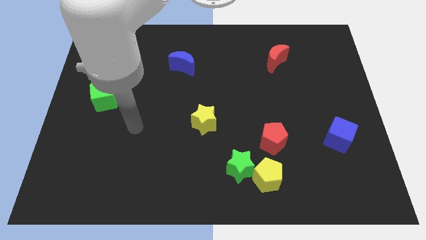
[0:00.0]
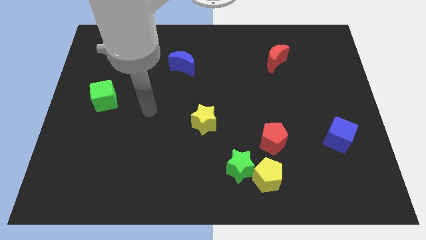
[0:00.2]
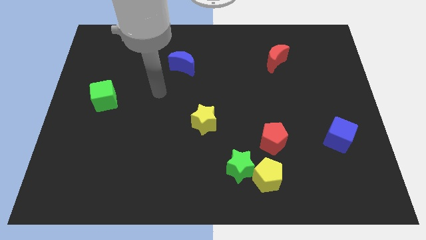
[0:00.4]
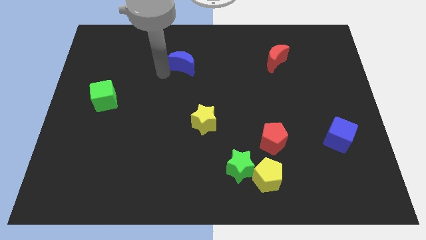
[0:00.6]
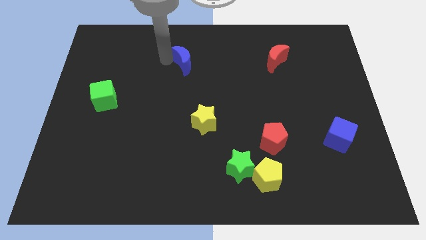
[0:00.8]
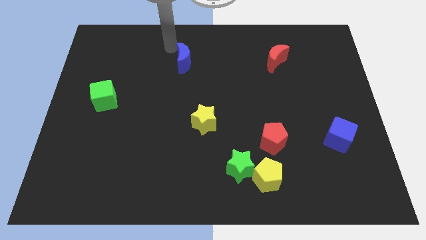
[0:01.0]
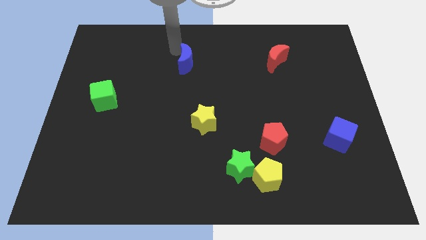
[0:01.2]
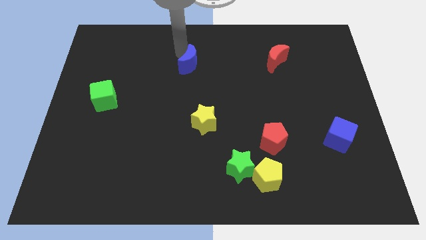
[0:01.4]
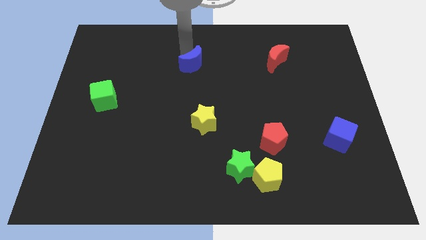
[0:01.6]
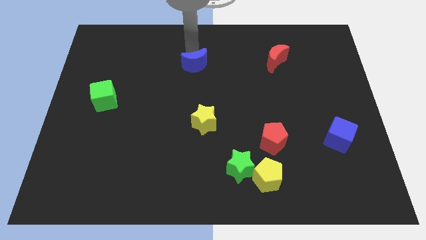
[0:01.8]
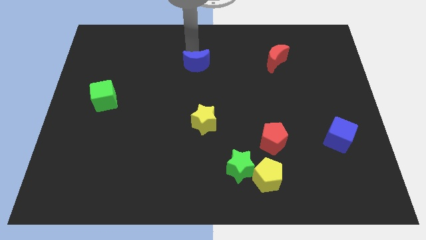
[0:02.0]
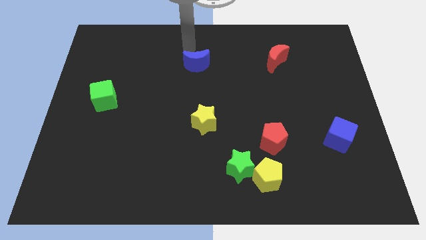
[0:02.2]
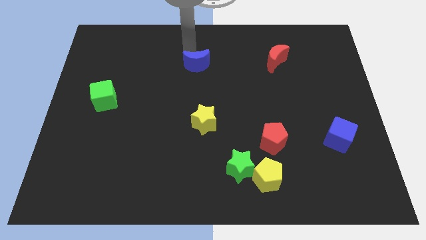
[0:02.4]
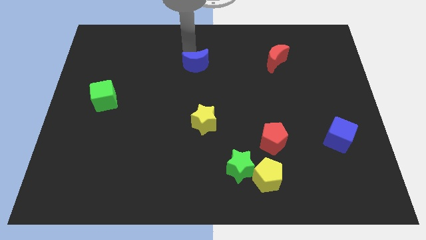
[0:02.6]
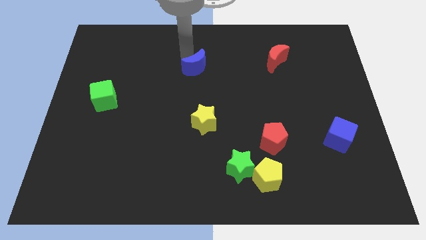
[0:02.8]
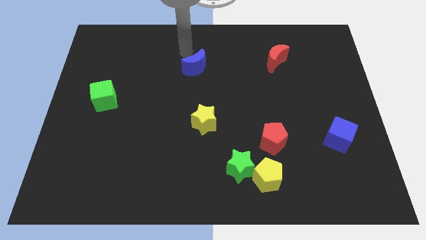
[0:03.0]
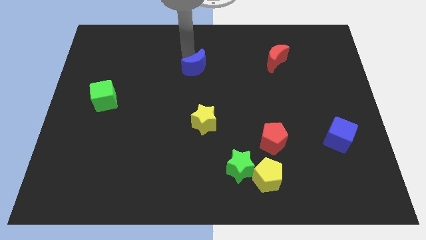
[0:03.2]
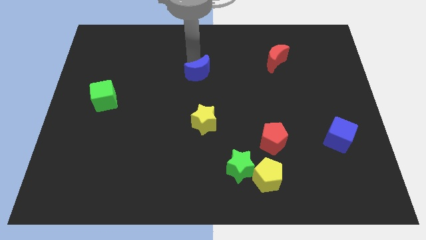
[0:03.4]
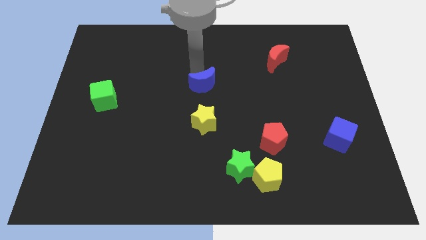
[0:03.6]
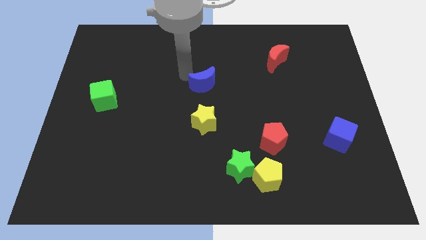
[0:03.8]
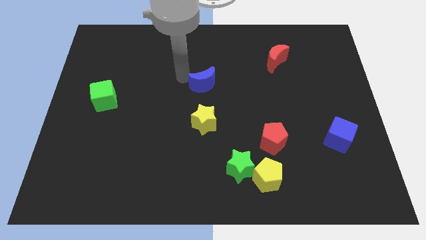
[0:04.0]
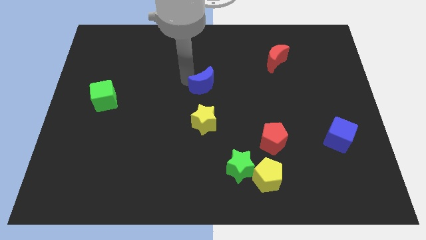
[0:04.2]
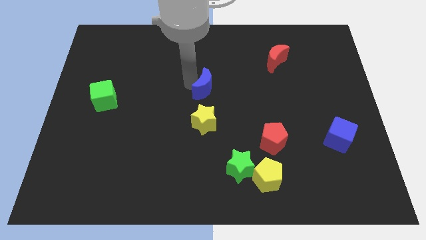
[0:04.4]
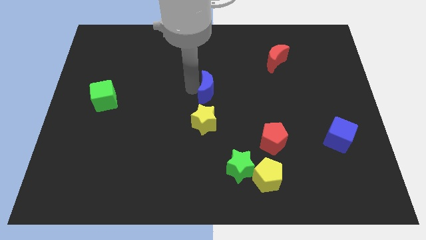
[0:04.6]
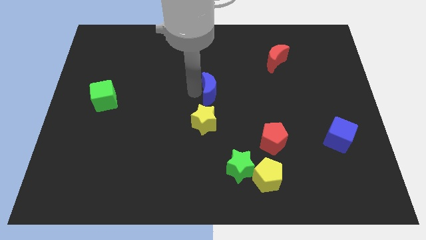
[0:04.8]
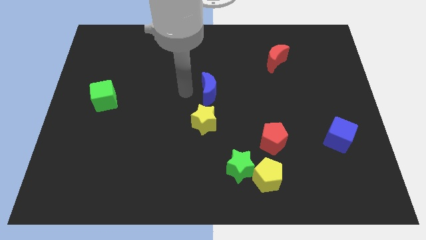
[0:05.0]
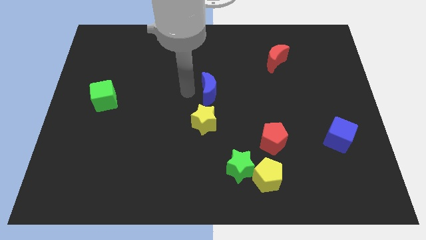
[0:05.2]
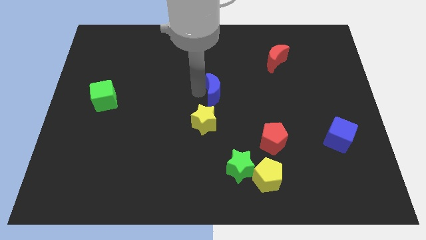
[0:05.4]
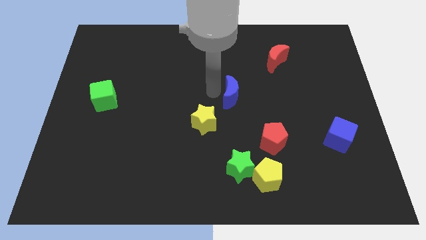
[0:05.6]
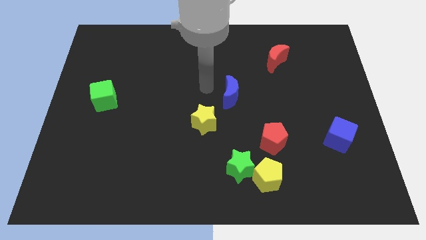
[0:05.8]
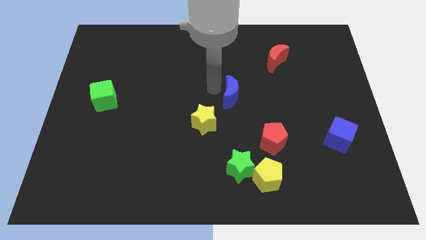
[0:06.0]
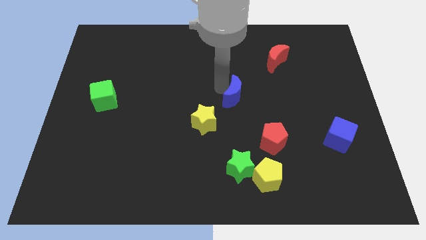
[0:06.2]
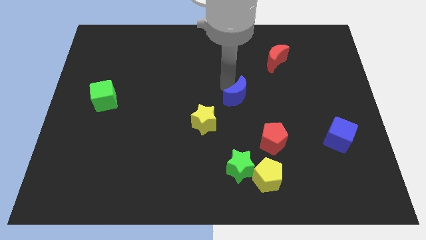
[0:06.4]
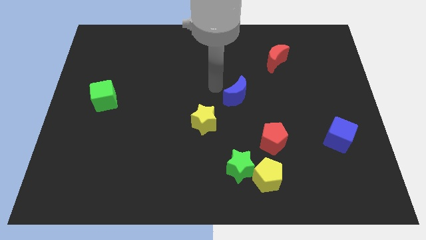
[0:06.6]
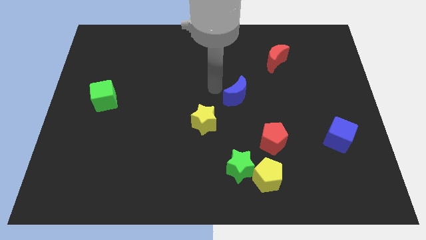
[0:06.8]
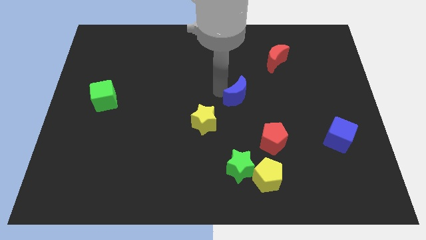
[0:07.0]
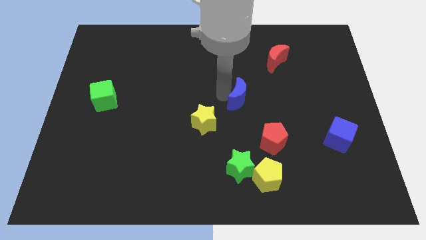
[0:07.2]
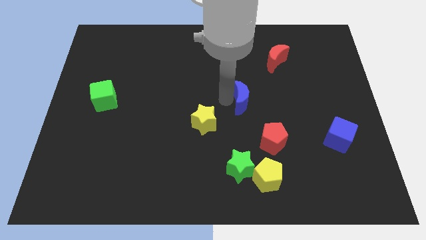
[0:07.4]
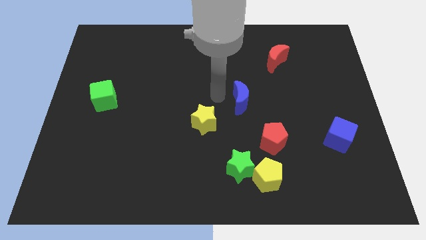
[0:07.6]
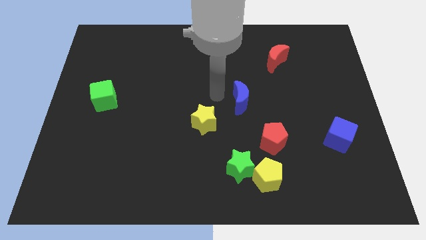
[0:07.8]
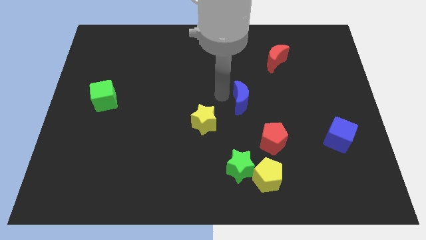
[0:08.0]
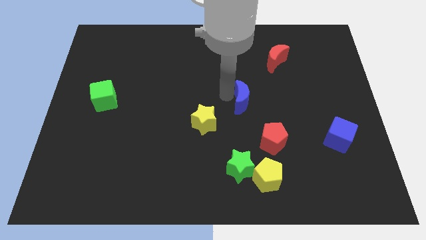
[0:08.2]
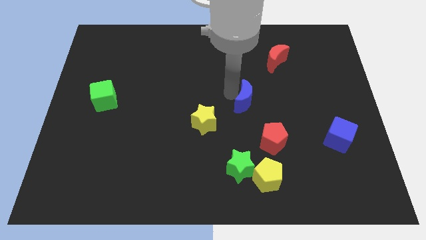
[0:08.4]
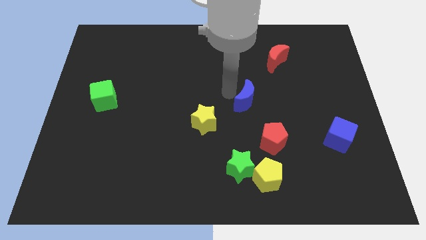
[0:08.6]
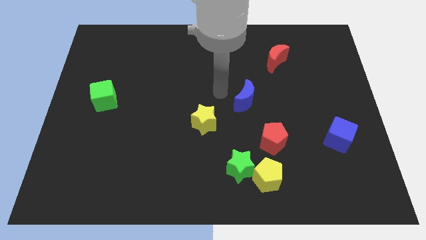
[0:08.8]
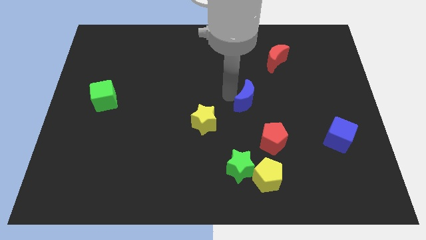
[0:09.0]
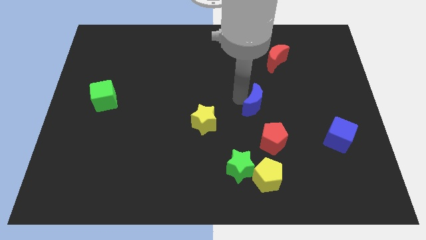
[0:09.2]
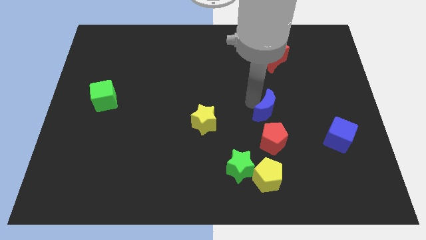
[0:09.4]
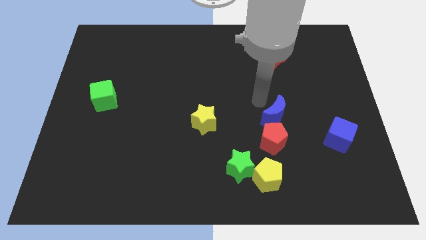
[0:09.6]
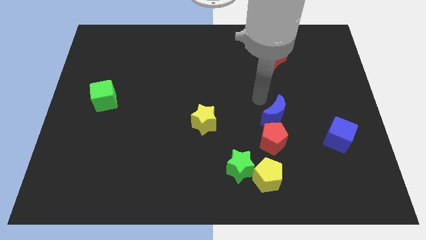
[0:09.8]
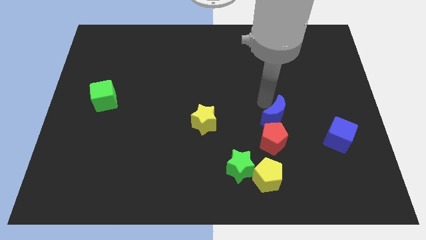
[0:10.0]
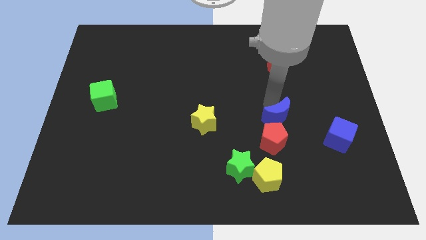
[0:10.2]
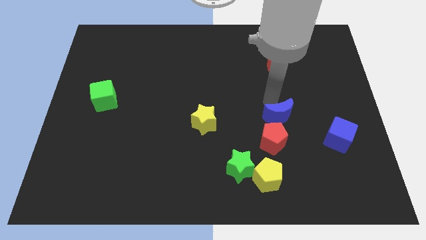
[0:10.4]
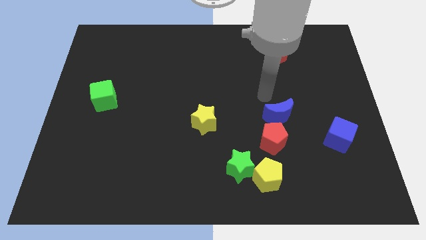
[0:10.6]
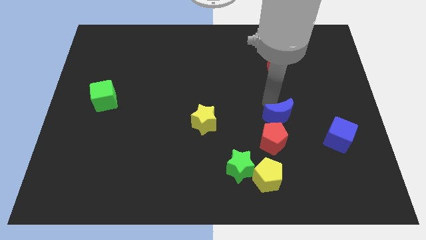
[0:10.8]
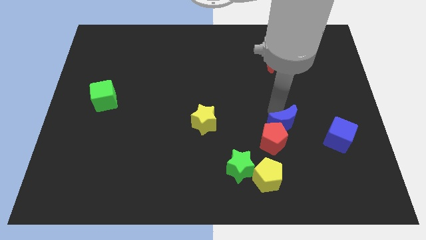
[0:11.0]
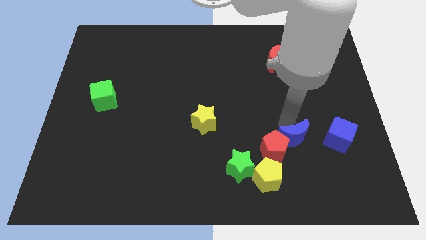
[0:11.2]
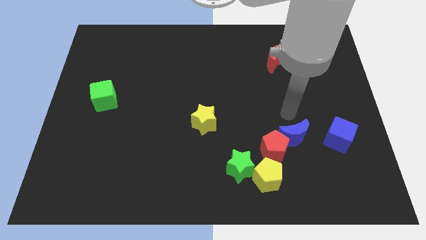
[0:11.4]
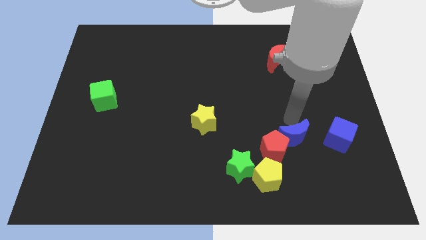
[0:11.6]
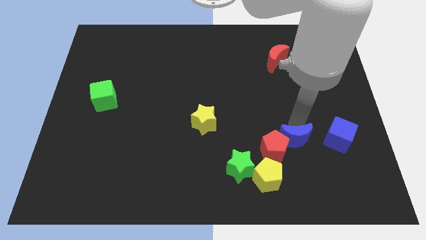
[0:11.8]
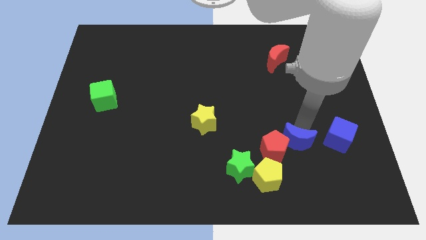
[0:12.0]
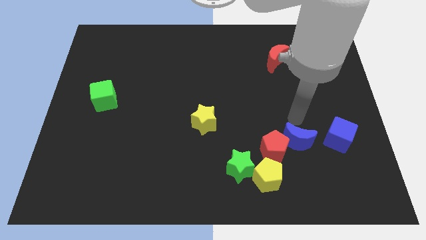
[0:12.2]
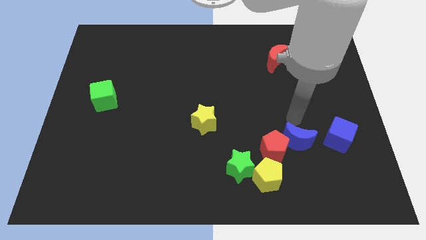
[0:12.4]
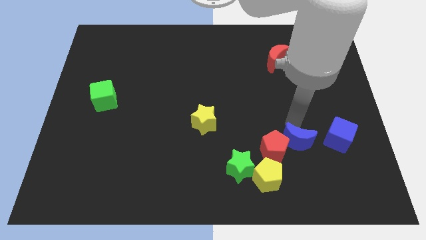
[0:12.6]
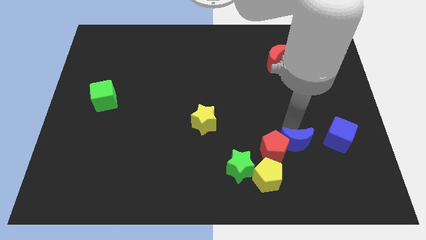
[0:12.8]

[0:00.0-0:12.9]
slide the blue moon to the bottom right of the red pentagon
